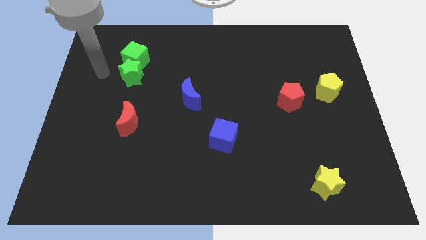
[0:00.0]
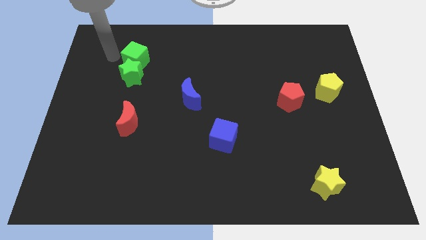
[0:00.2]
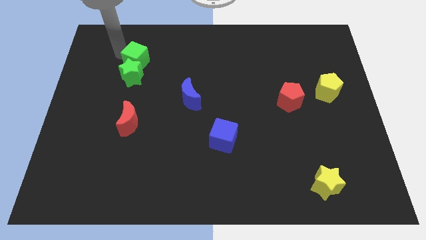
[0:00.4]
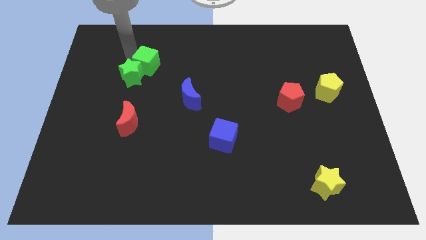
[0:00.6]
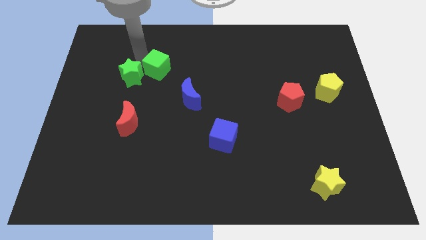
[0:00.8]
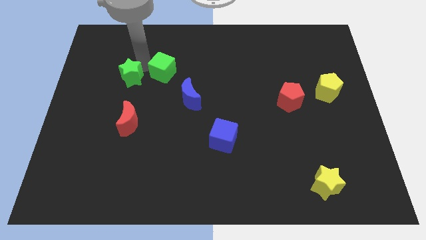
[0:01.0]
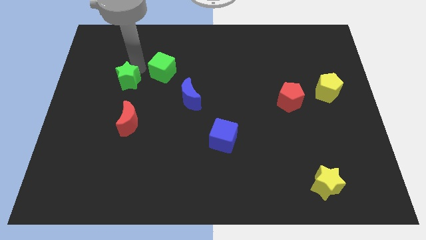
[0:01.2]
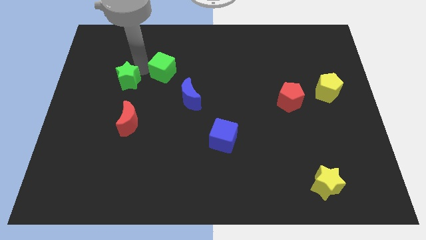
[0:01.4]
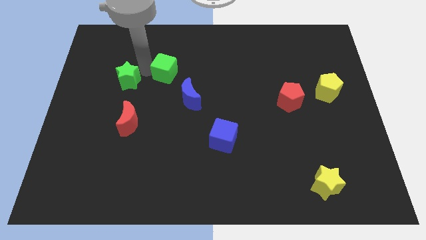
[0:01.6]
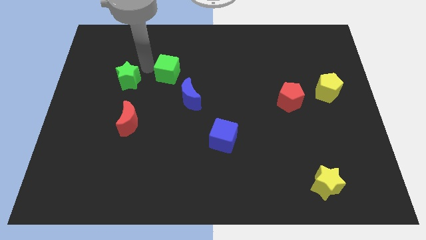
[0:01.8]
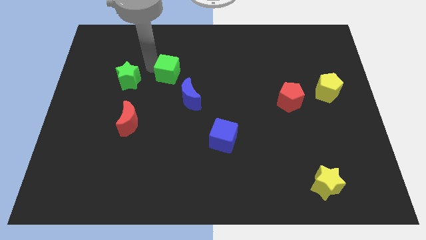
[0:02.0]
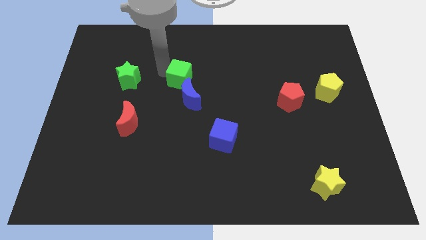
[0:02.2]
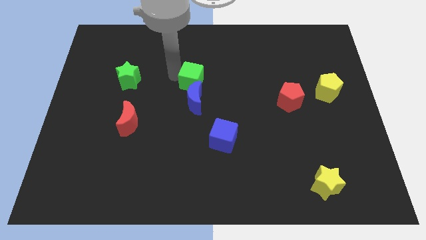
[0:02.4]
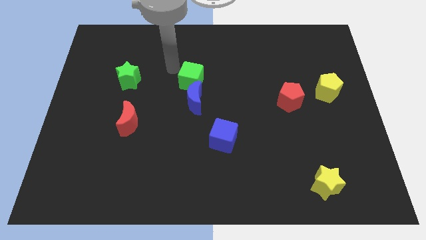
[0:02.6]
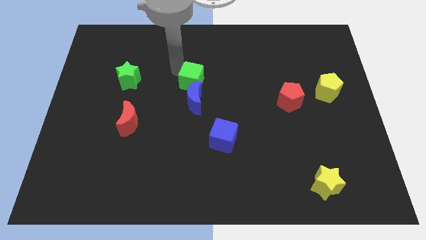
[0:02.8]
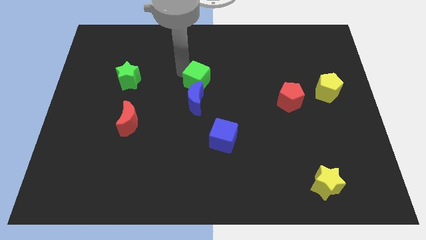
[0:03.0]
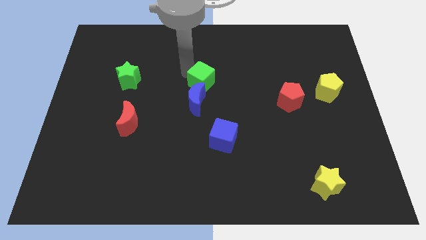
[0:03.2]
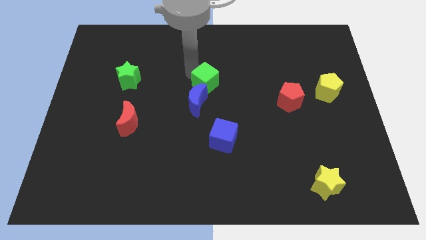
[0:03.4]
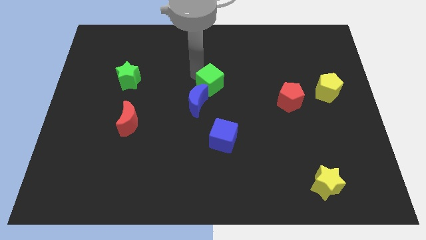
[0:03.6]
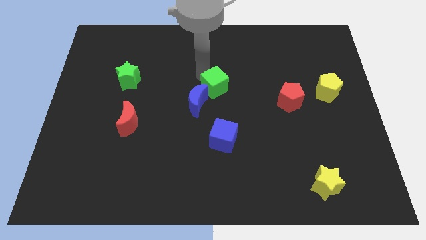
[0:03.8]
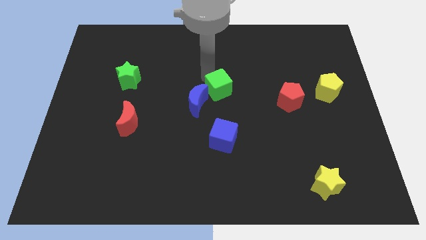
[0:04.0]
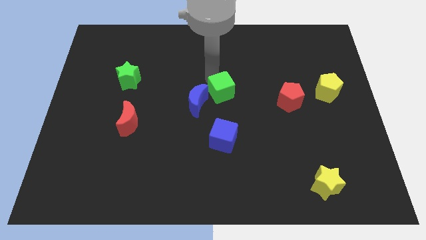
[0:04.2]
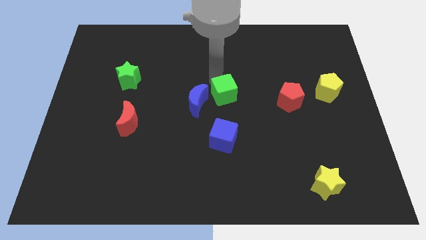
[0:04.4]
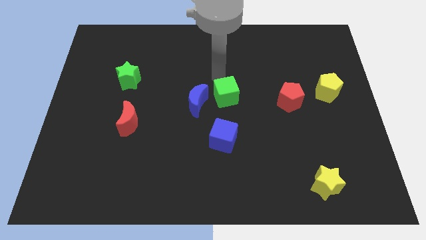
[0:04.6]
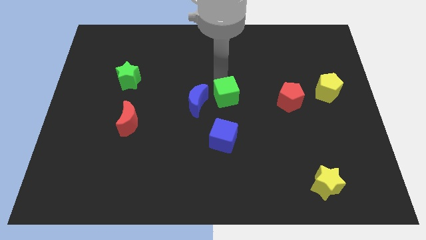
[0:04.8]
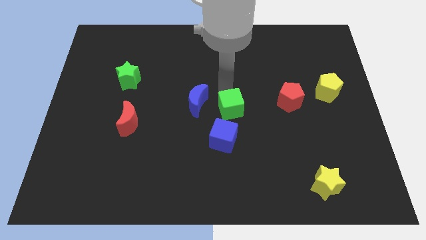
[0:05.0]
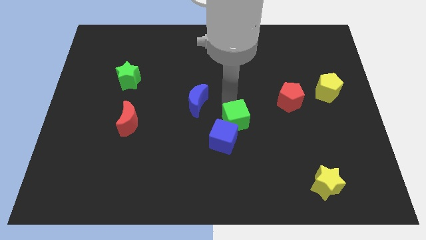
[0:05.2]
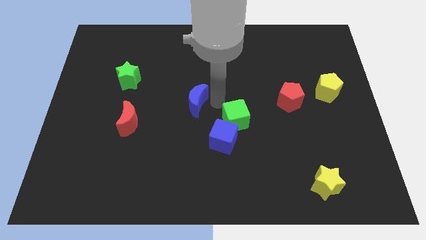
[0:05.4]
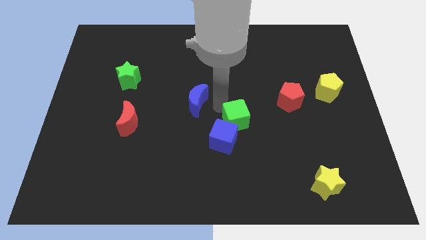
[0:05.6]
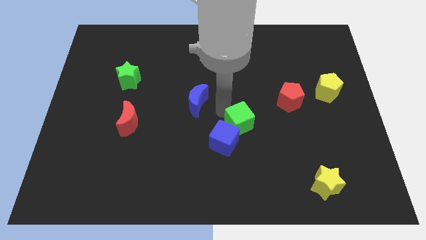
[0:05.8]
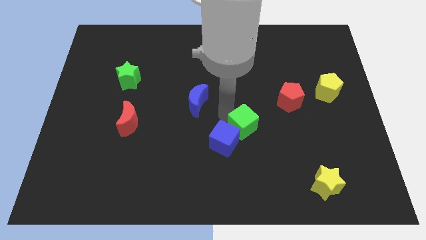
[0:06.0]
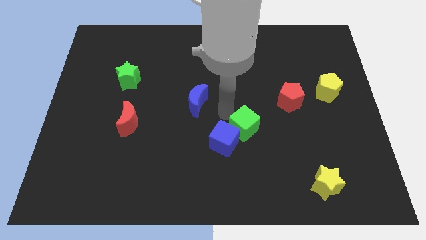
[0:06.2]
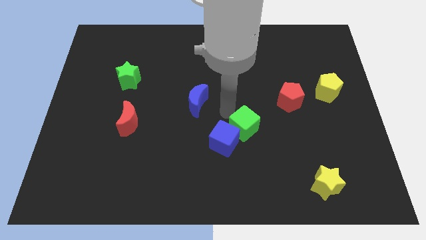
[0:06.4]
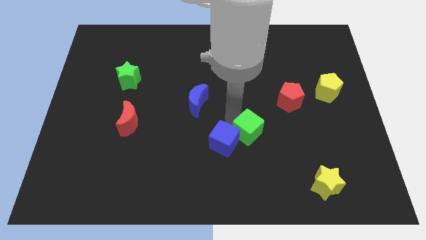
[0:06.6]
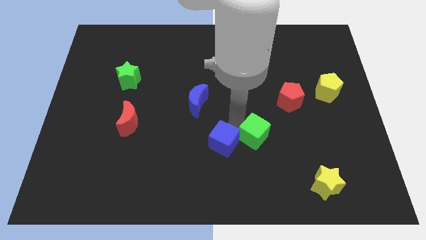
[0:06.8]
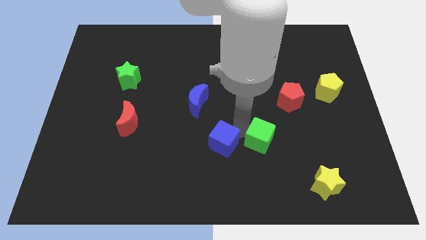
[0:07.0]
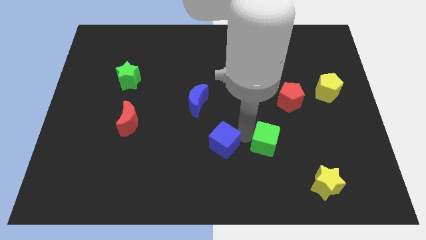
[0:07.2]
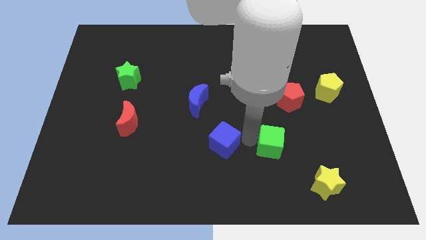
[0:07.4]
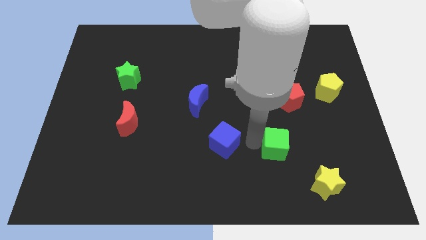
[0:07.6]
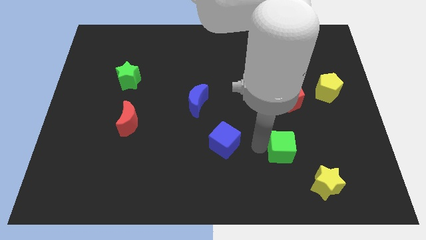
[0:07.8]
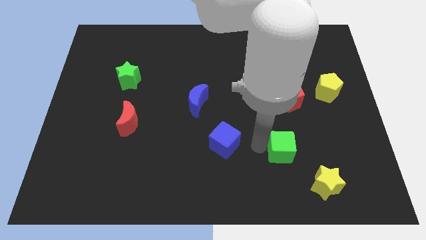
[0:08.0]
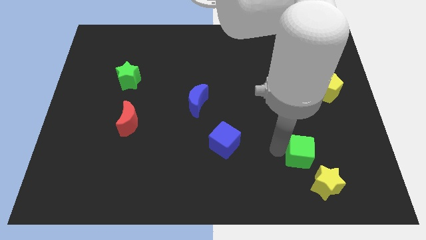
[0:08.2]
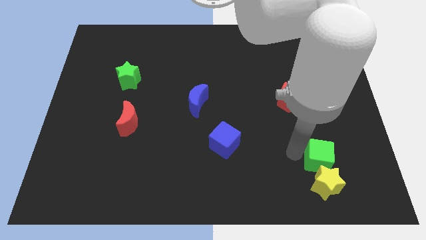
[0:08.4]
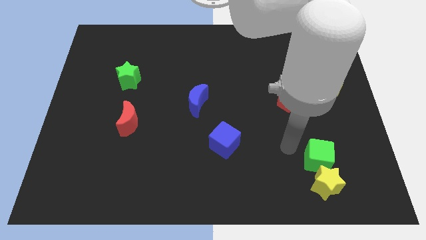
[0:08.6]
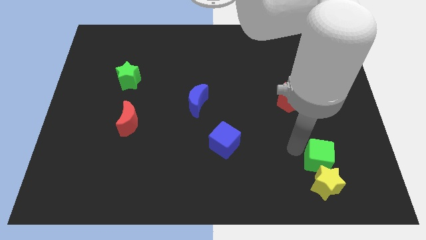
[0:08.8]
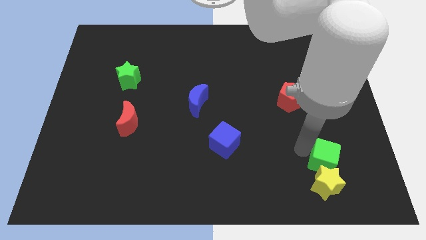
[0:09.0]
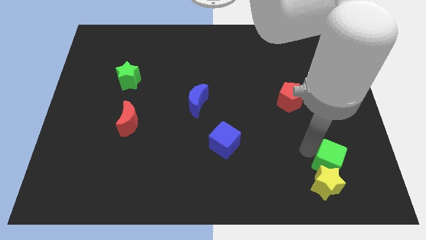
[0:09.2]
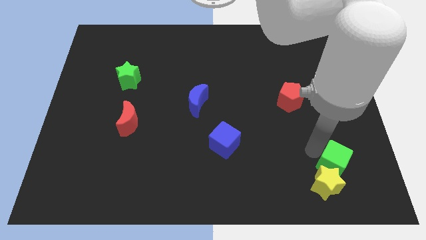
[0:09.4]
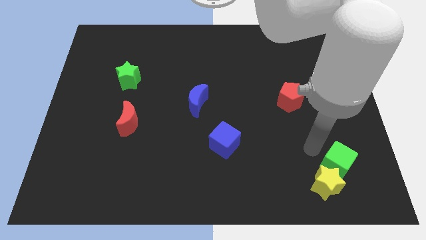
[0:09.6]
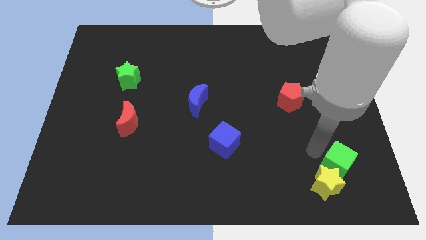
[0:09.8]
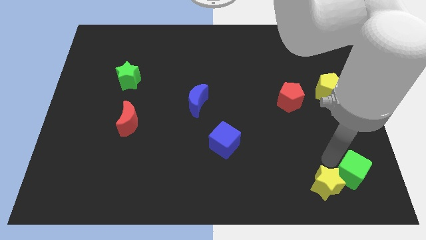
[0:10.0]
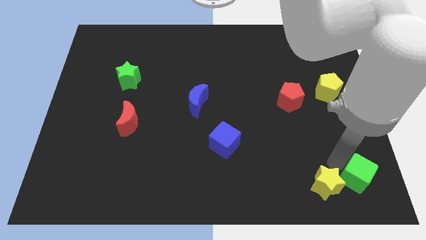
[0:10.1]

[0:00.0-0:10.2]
push the green cube to the lower right corner

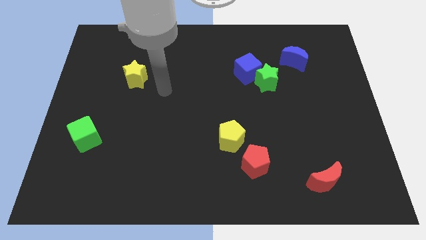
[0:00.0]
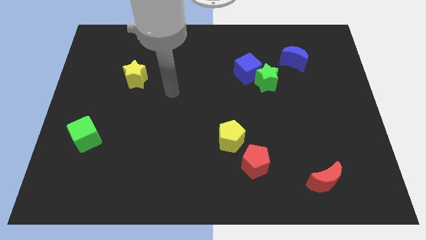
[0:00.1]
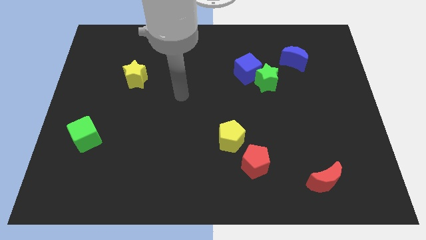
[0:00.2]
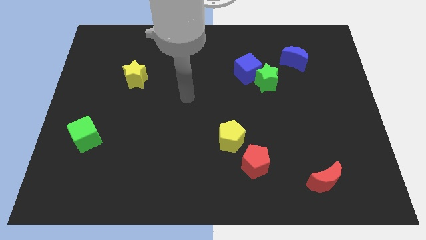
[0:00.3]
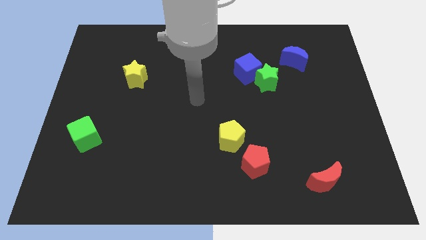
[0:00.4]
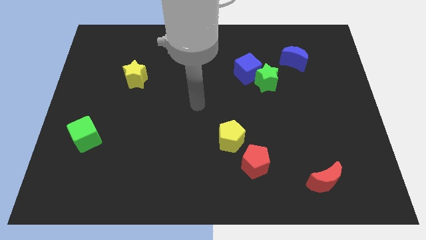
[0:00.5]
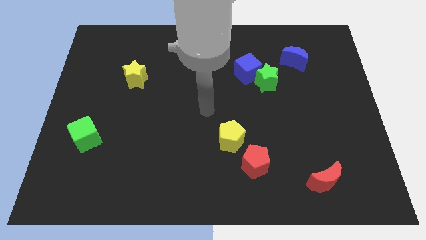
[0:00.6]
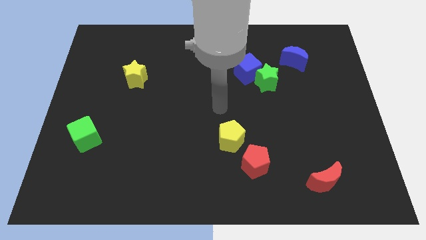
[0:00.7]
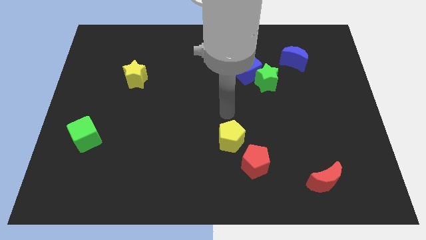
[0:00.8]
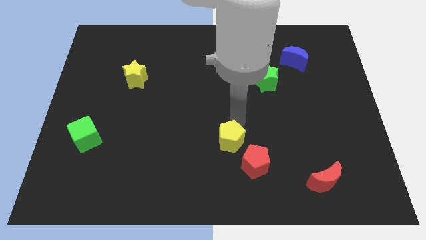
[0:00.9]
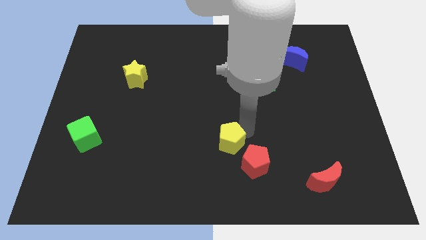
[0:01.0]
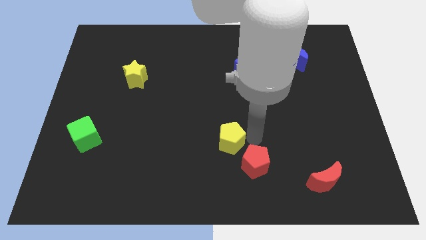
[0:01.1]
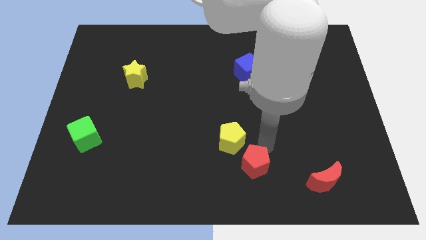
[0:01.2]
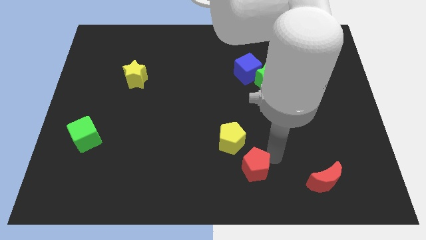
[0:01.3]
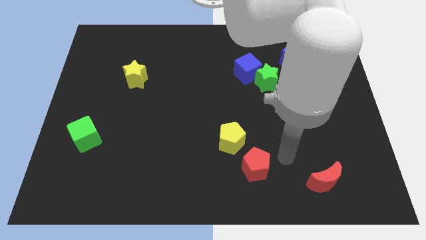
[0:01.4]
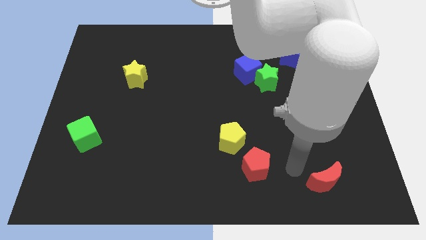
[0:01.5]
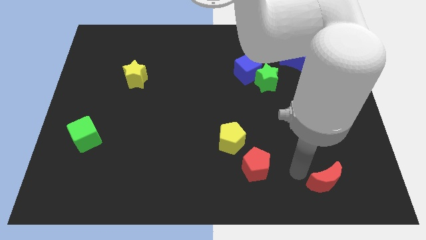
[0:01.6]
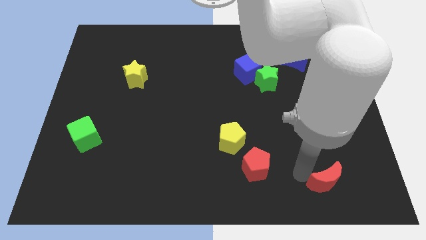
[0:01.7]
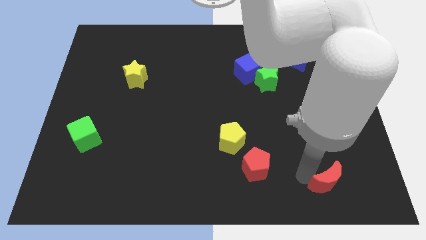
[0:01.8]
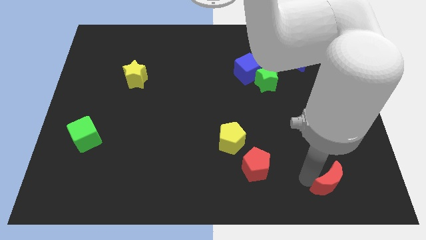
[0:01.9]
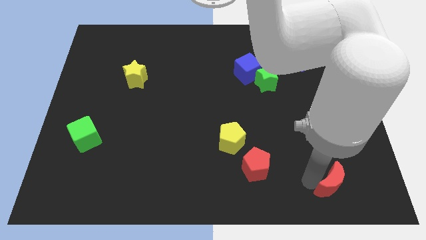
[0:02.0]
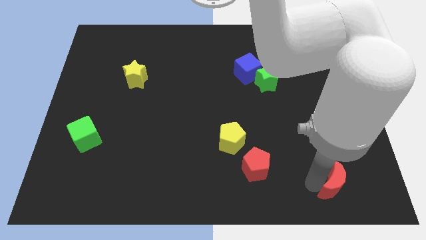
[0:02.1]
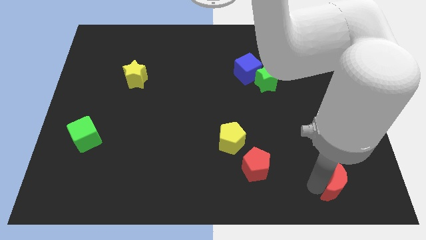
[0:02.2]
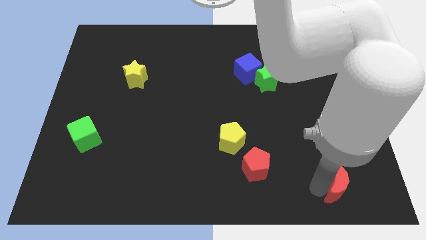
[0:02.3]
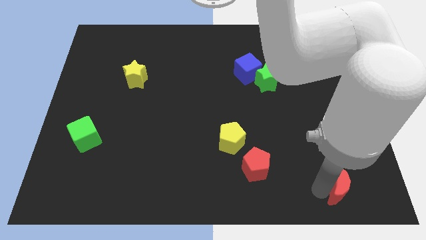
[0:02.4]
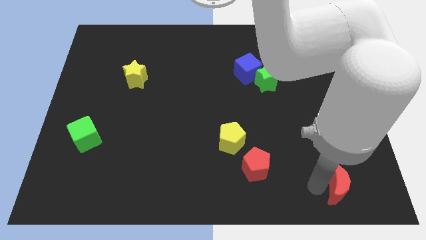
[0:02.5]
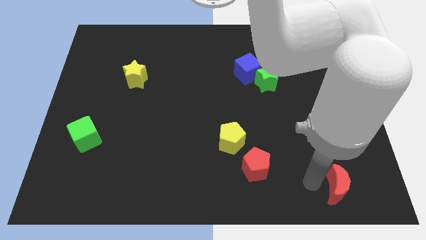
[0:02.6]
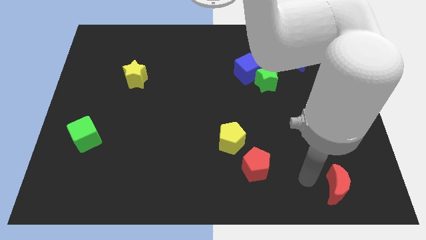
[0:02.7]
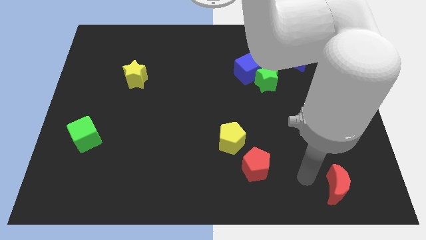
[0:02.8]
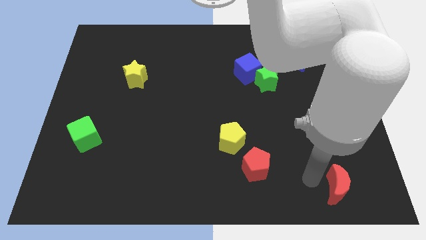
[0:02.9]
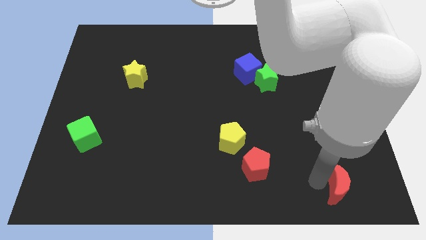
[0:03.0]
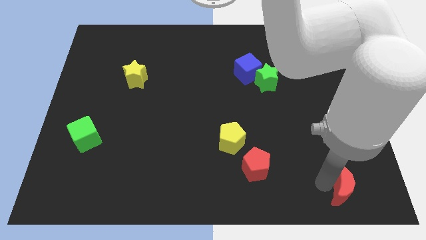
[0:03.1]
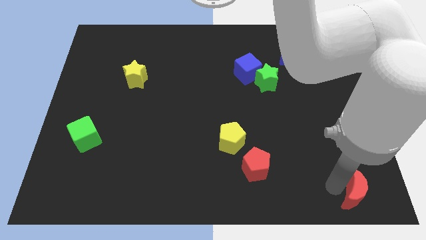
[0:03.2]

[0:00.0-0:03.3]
push the red moon to the lower right corner
